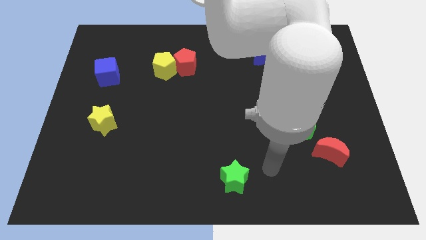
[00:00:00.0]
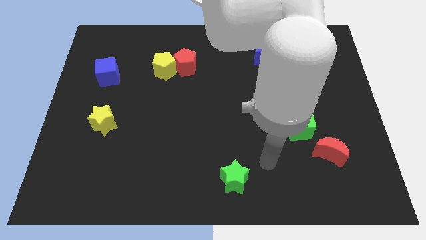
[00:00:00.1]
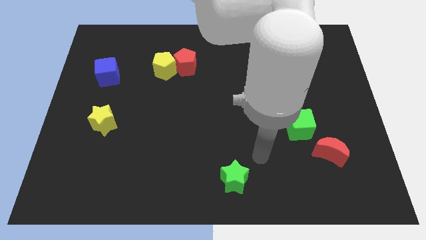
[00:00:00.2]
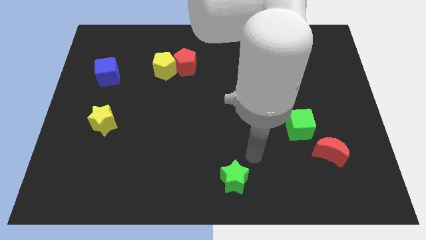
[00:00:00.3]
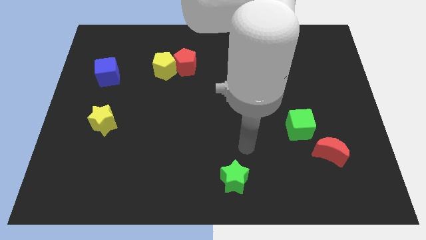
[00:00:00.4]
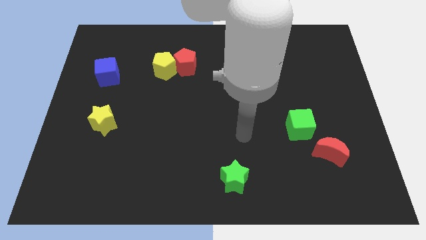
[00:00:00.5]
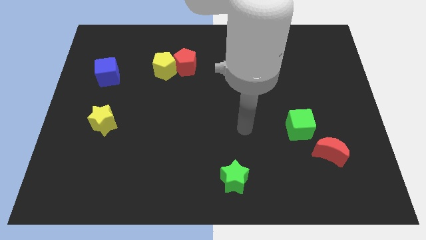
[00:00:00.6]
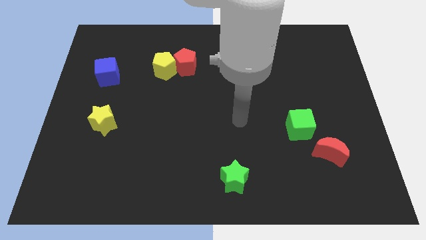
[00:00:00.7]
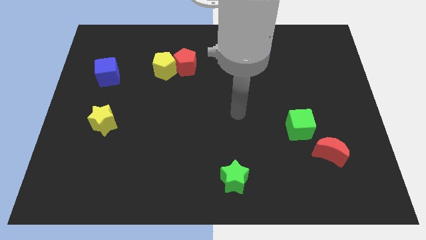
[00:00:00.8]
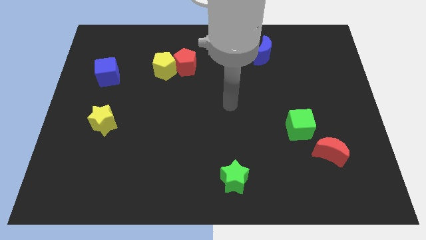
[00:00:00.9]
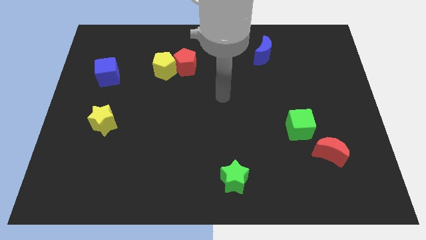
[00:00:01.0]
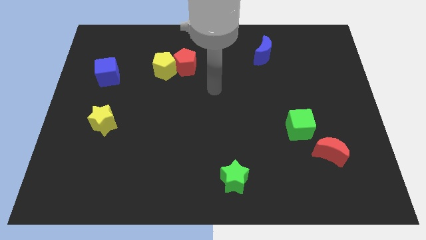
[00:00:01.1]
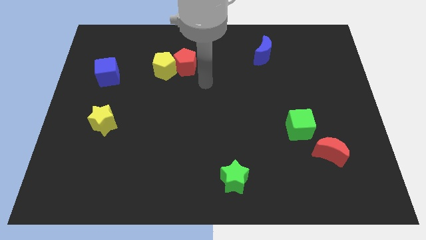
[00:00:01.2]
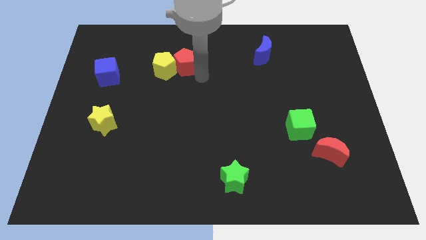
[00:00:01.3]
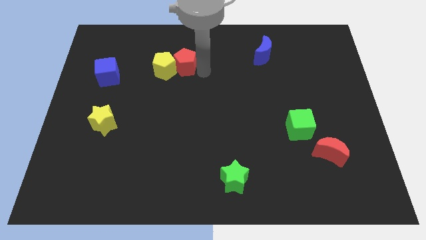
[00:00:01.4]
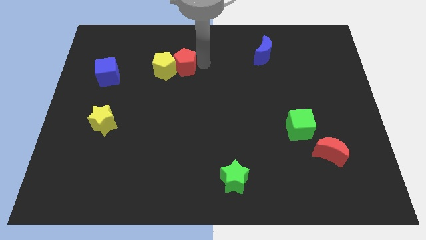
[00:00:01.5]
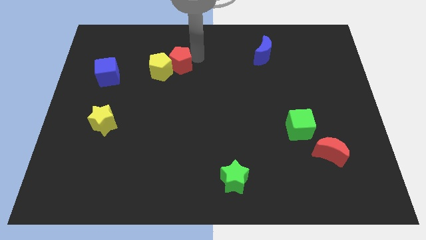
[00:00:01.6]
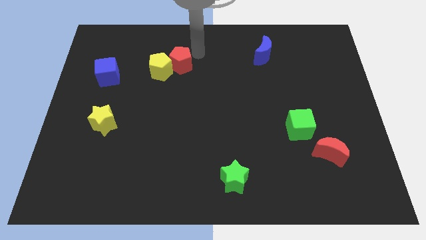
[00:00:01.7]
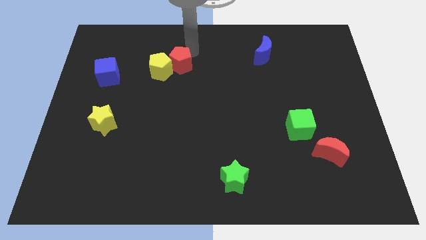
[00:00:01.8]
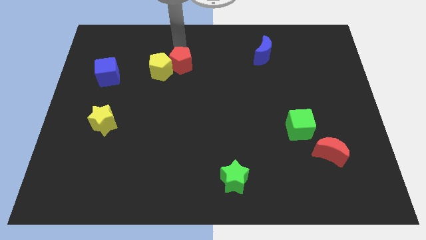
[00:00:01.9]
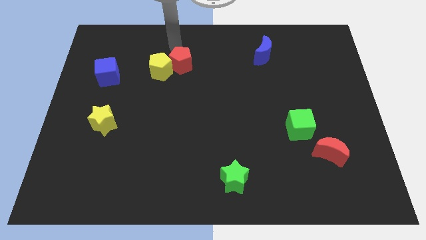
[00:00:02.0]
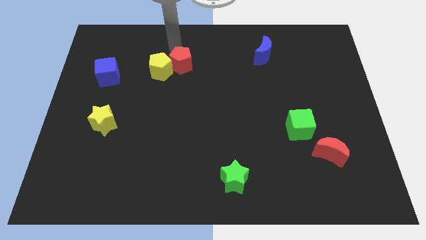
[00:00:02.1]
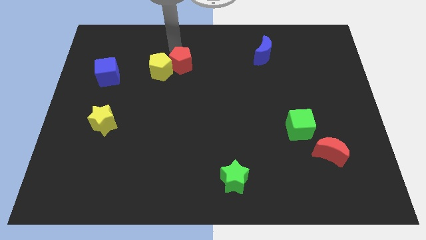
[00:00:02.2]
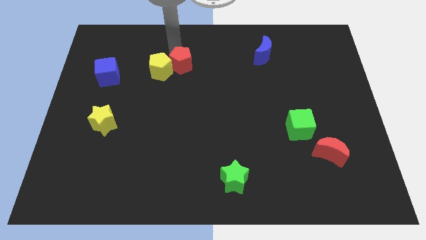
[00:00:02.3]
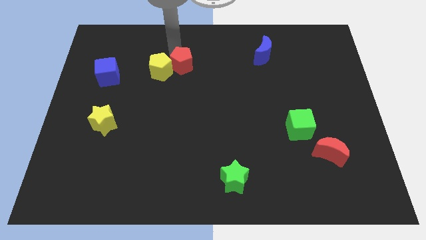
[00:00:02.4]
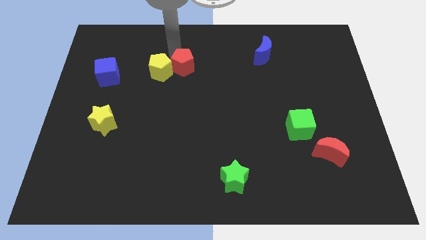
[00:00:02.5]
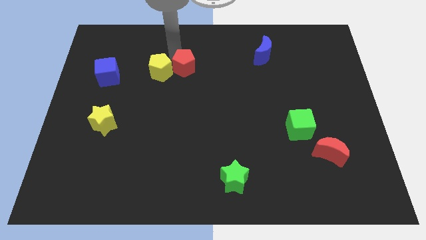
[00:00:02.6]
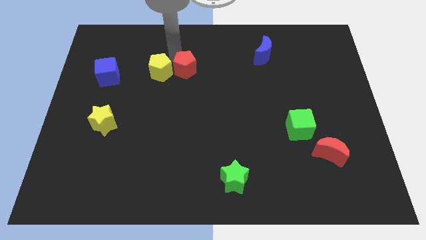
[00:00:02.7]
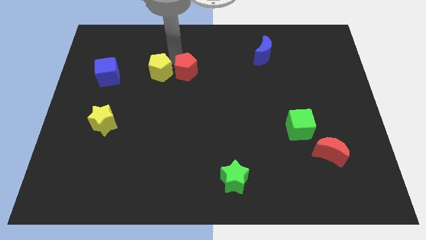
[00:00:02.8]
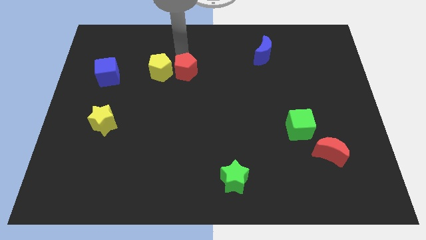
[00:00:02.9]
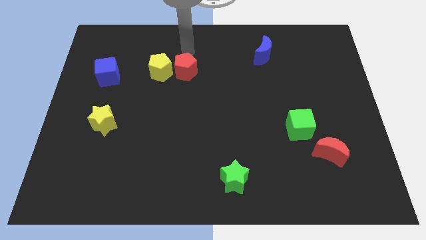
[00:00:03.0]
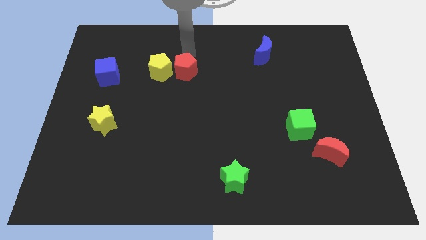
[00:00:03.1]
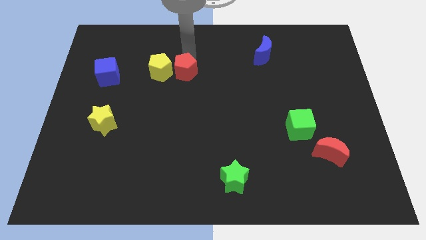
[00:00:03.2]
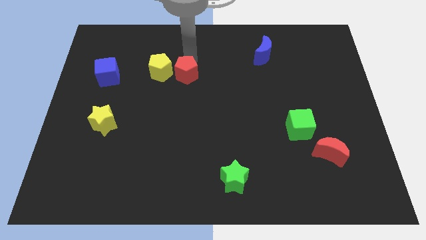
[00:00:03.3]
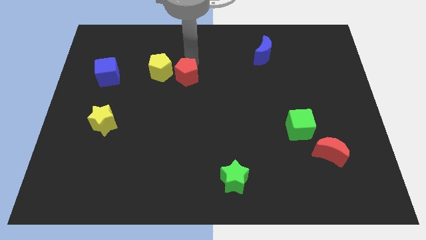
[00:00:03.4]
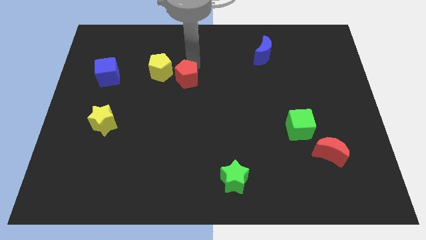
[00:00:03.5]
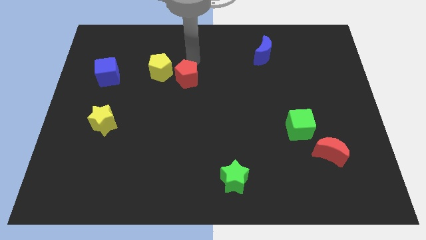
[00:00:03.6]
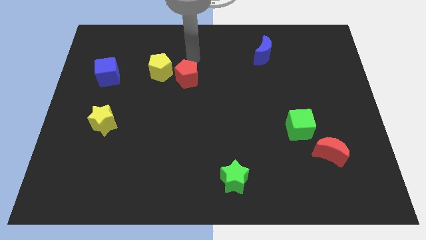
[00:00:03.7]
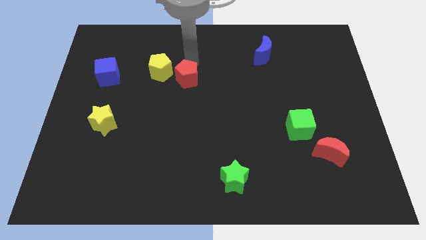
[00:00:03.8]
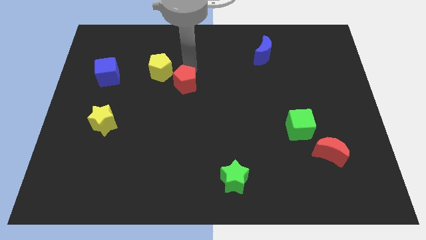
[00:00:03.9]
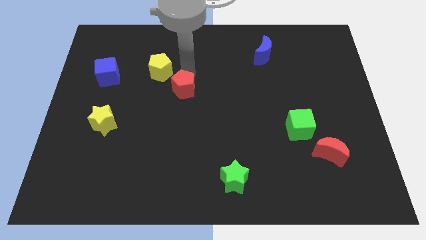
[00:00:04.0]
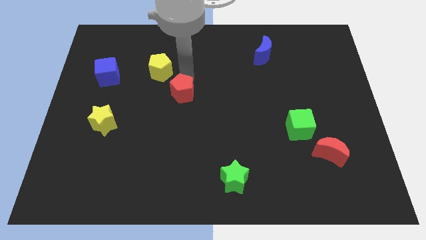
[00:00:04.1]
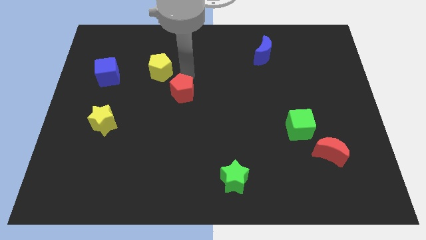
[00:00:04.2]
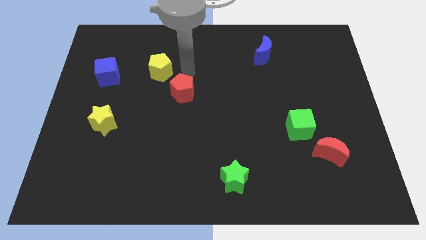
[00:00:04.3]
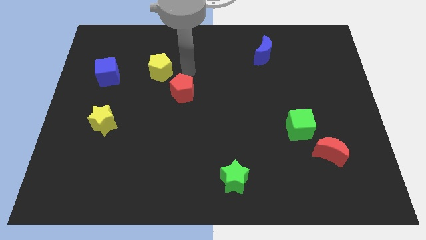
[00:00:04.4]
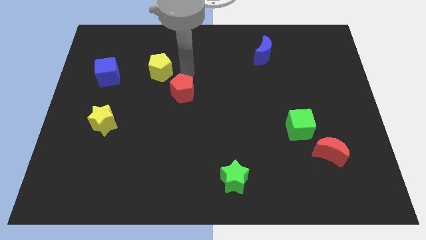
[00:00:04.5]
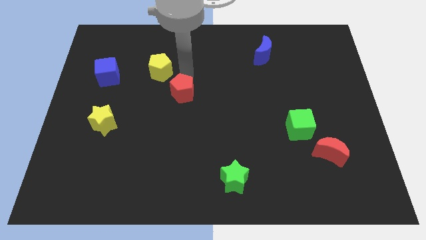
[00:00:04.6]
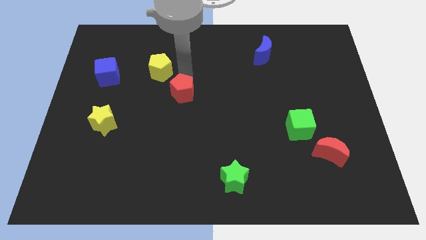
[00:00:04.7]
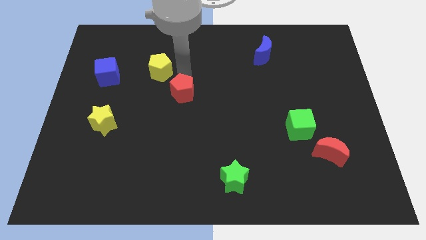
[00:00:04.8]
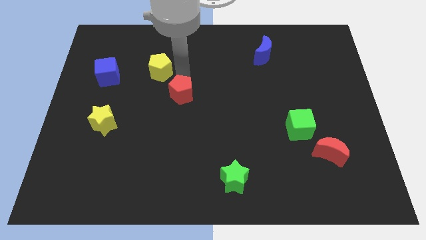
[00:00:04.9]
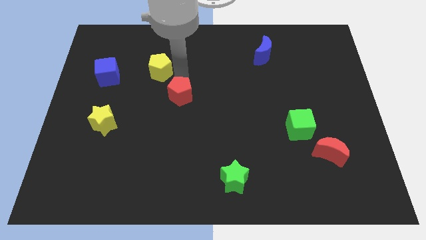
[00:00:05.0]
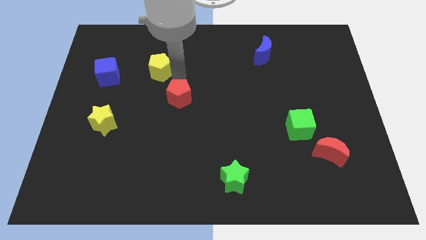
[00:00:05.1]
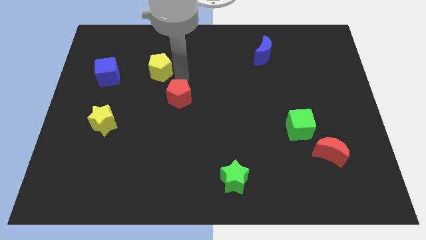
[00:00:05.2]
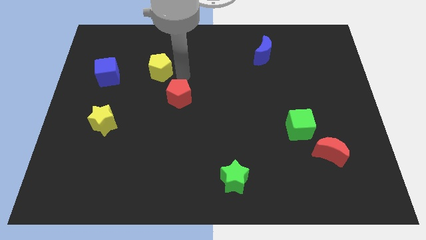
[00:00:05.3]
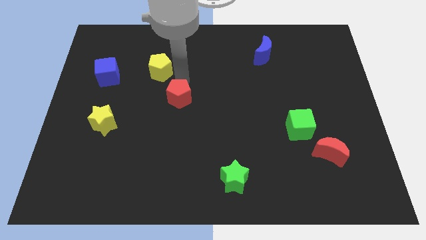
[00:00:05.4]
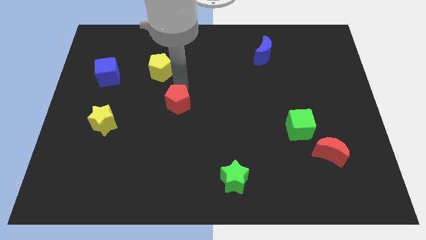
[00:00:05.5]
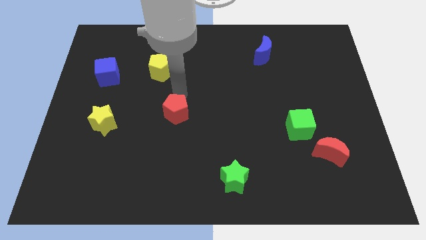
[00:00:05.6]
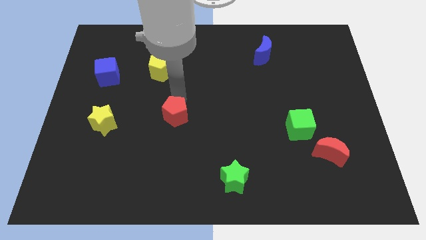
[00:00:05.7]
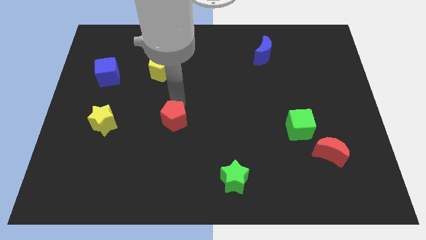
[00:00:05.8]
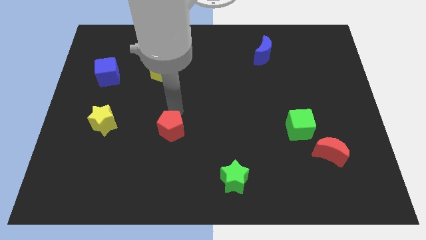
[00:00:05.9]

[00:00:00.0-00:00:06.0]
move the red pentagon down

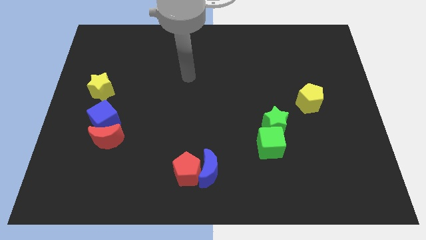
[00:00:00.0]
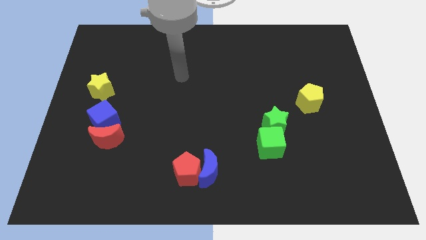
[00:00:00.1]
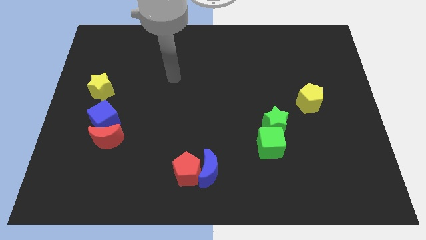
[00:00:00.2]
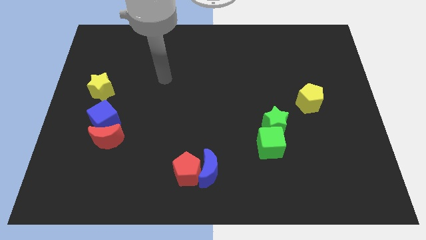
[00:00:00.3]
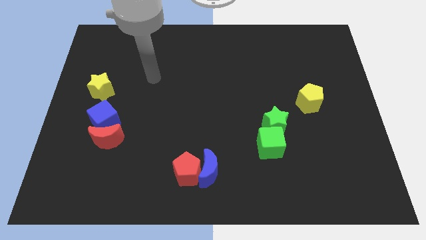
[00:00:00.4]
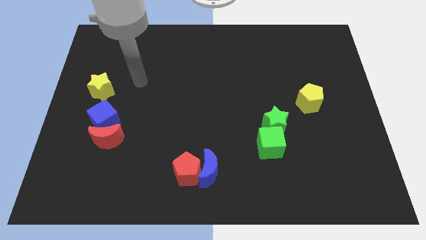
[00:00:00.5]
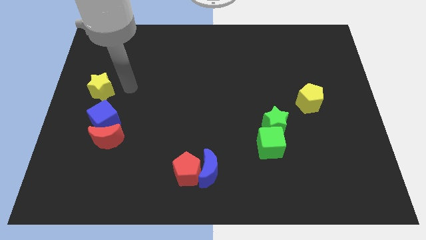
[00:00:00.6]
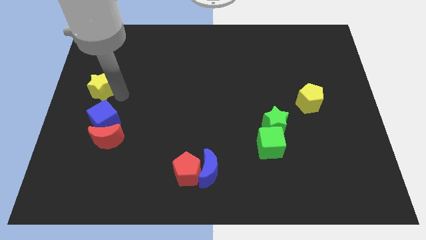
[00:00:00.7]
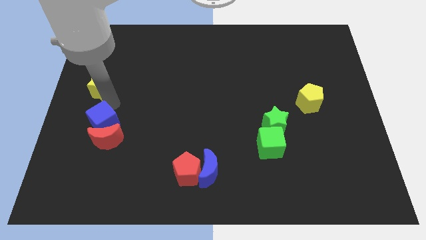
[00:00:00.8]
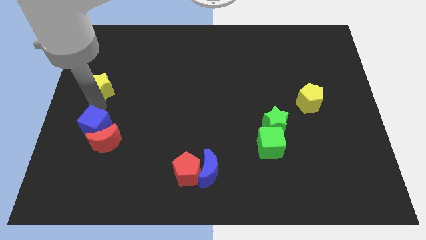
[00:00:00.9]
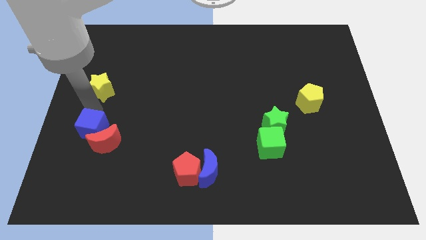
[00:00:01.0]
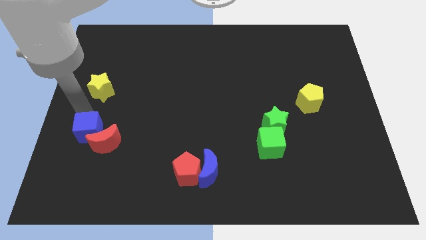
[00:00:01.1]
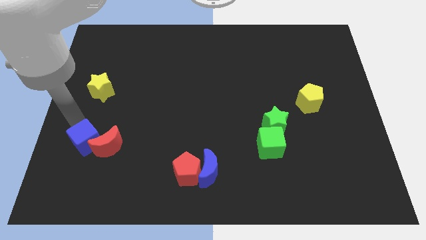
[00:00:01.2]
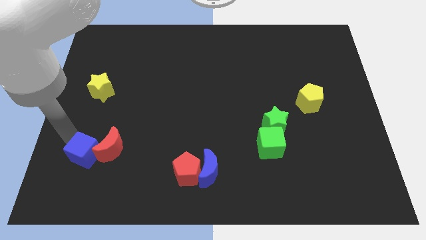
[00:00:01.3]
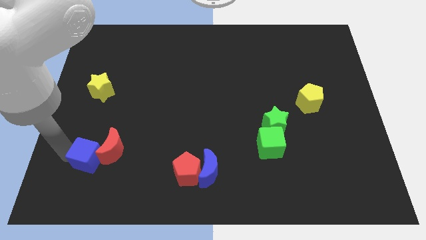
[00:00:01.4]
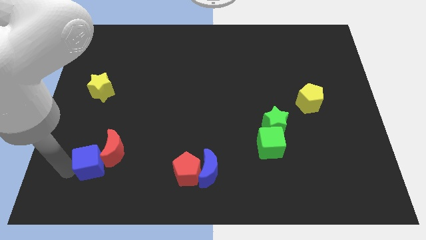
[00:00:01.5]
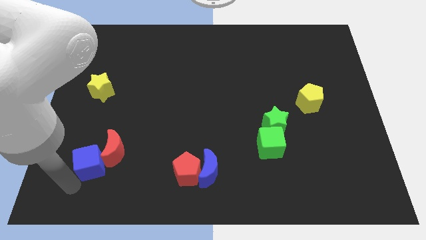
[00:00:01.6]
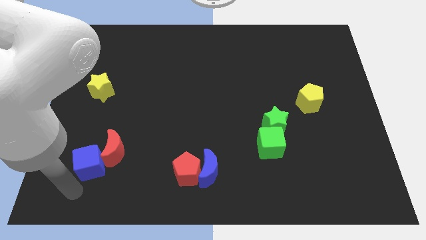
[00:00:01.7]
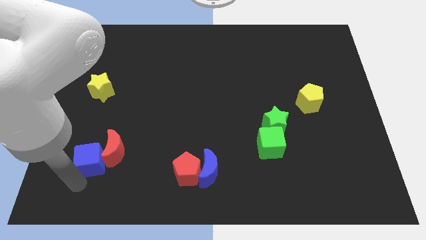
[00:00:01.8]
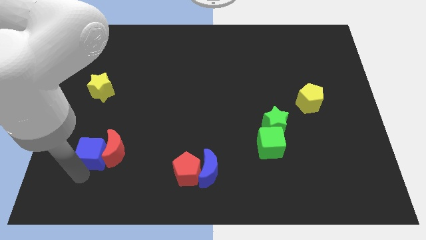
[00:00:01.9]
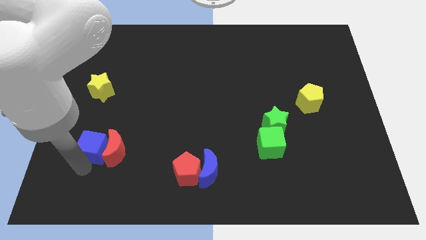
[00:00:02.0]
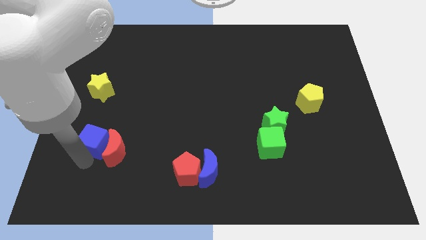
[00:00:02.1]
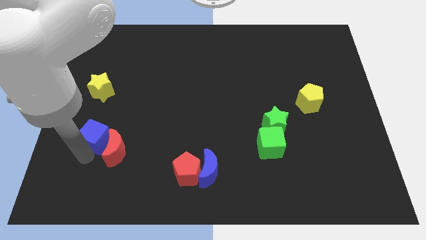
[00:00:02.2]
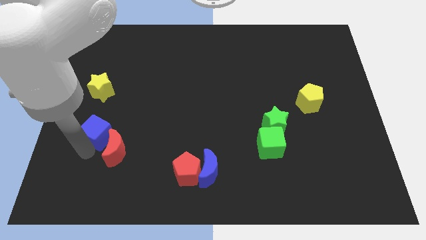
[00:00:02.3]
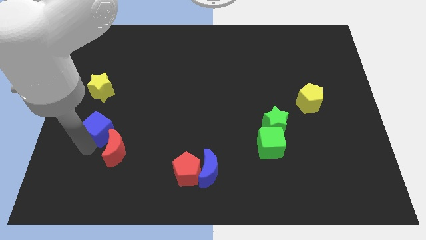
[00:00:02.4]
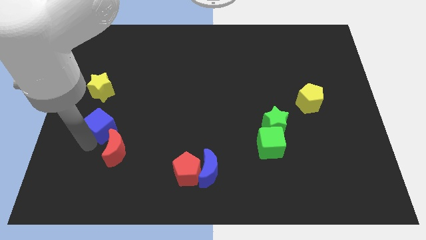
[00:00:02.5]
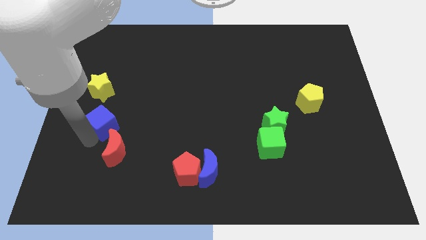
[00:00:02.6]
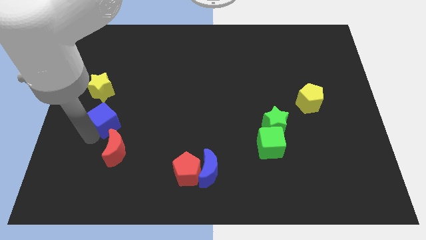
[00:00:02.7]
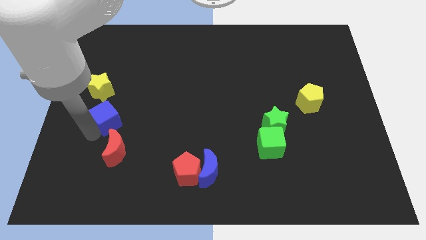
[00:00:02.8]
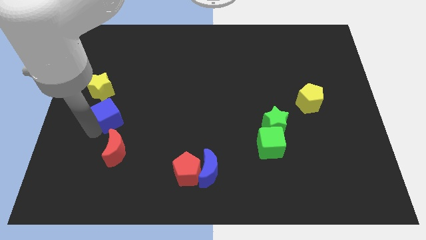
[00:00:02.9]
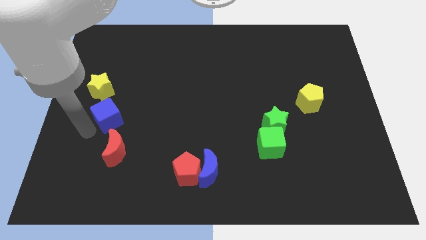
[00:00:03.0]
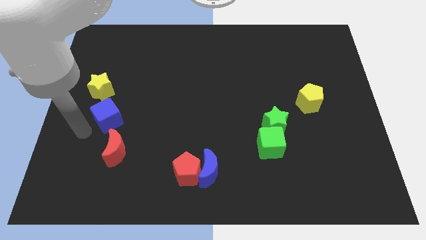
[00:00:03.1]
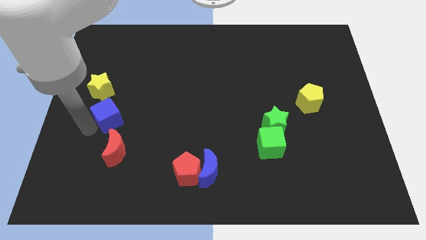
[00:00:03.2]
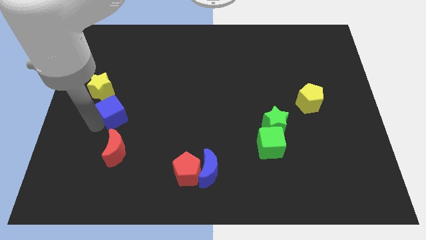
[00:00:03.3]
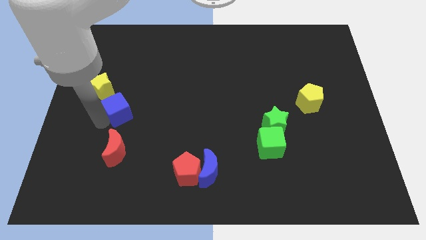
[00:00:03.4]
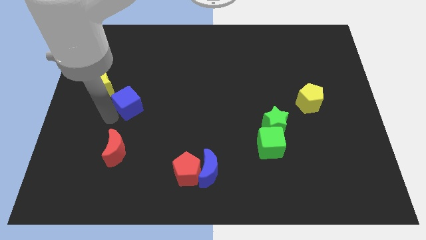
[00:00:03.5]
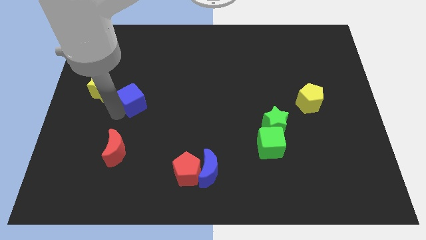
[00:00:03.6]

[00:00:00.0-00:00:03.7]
slightly slide the blue cube upwards and right
